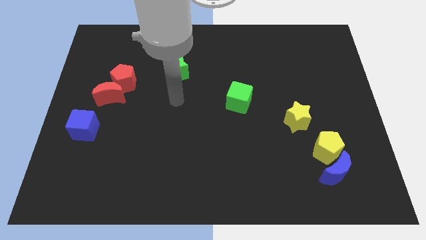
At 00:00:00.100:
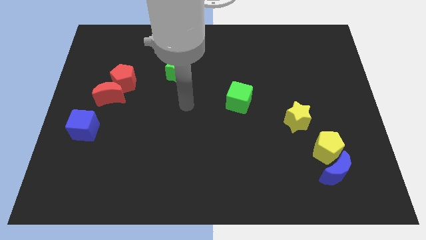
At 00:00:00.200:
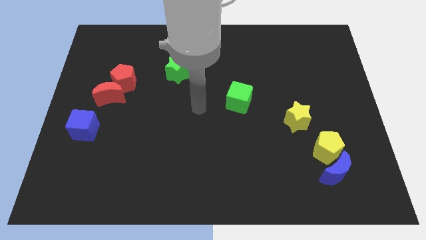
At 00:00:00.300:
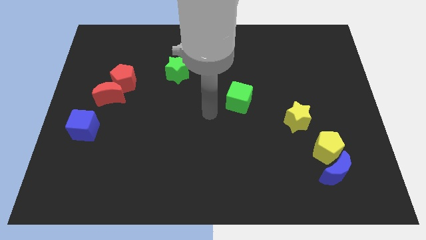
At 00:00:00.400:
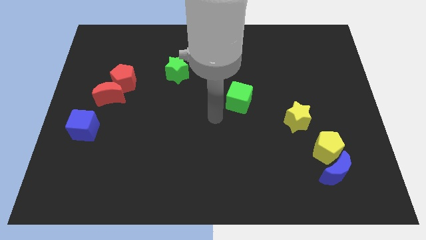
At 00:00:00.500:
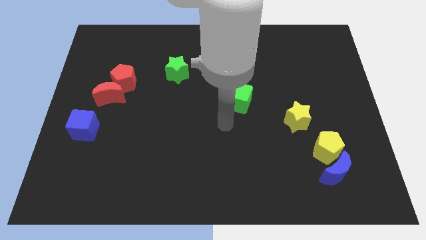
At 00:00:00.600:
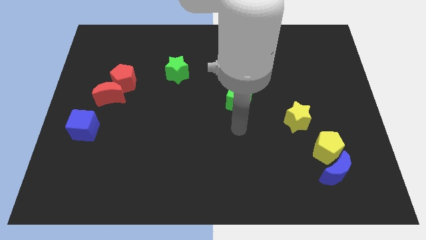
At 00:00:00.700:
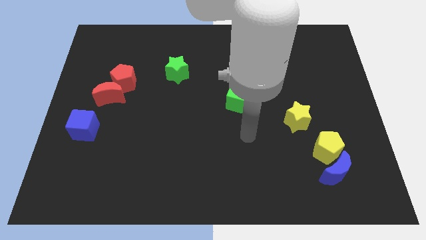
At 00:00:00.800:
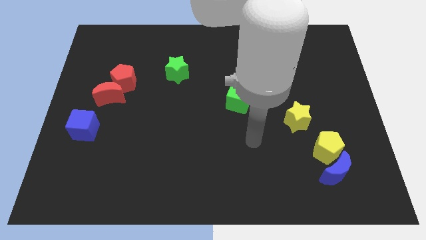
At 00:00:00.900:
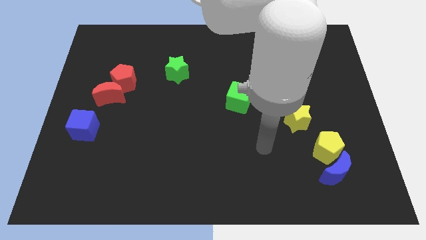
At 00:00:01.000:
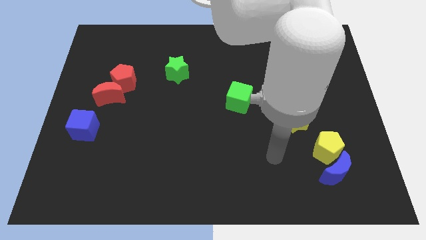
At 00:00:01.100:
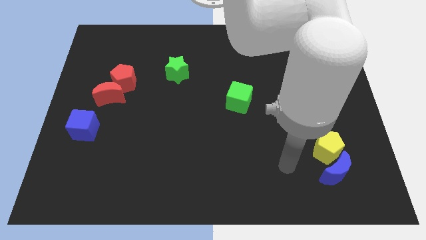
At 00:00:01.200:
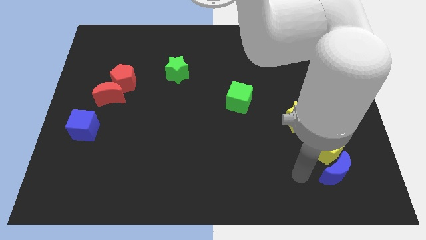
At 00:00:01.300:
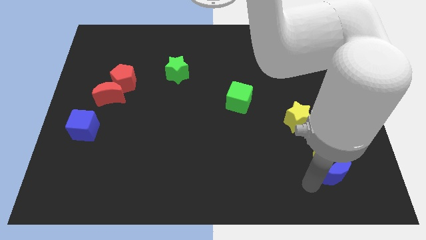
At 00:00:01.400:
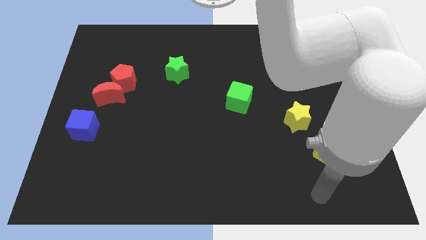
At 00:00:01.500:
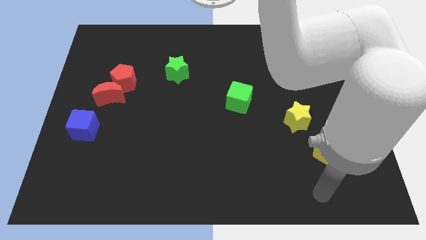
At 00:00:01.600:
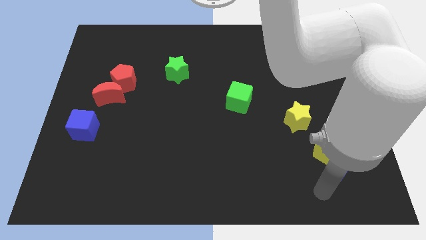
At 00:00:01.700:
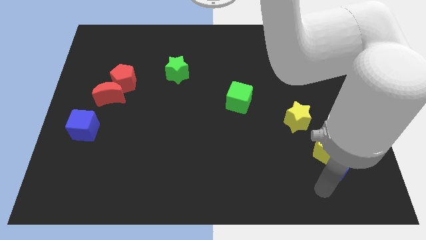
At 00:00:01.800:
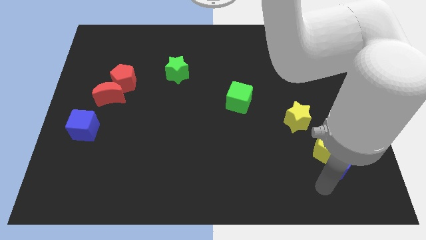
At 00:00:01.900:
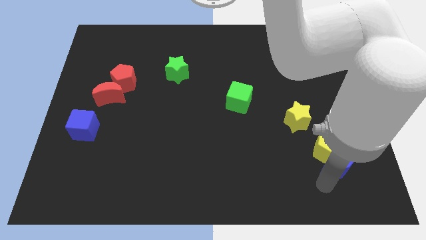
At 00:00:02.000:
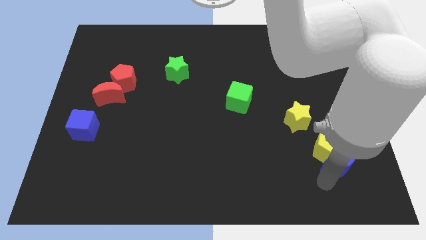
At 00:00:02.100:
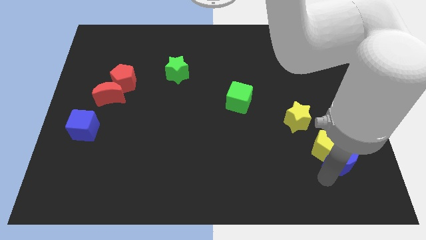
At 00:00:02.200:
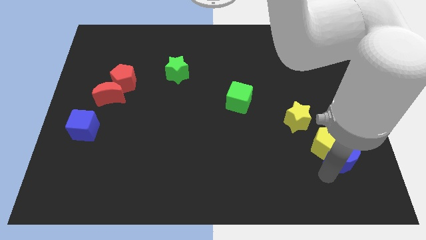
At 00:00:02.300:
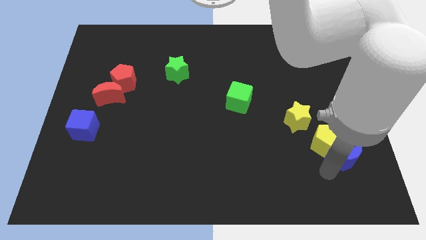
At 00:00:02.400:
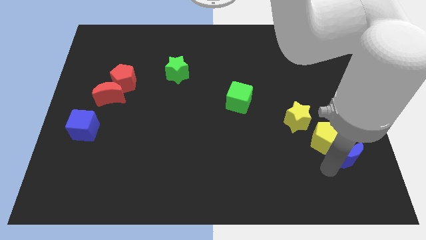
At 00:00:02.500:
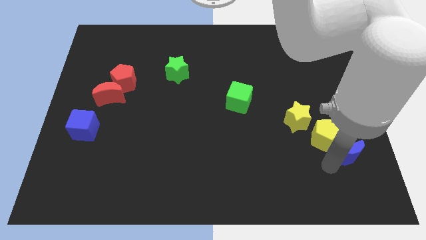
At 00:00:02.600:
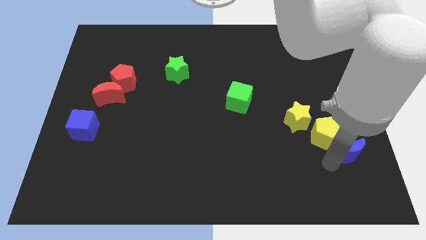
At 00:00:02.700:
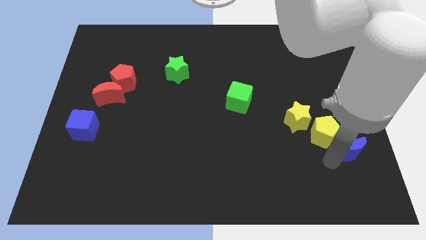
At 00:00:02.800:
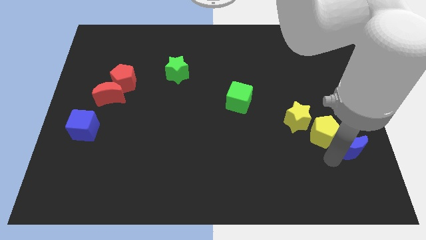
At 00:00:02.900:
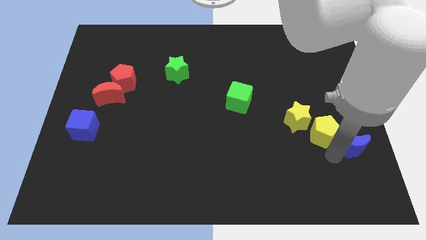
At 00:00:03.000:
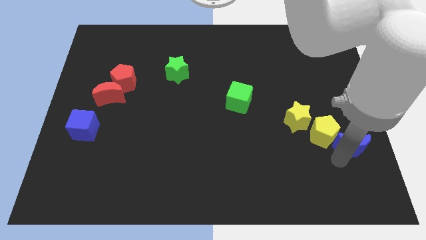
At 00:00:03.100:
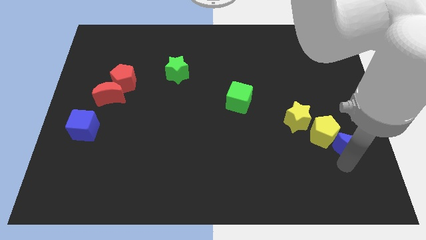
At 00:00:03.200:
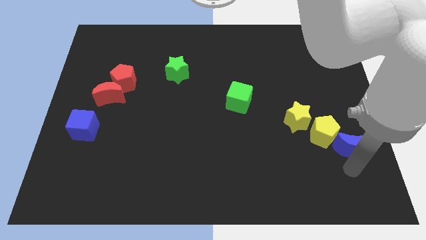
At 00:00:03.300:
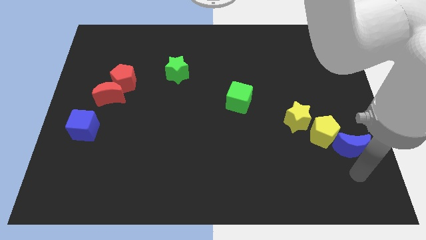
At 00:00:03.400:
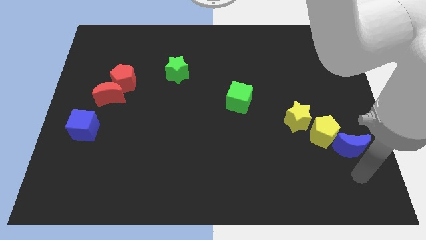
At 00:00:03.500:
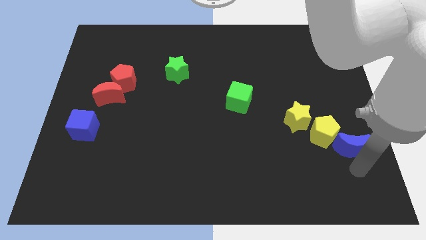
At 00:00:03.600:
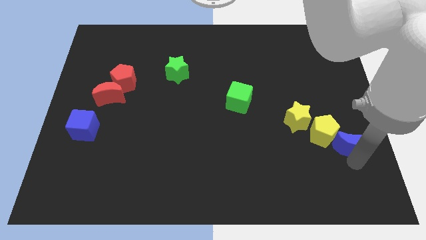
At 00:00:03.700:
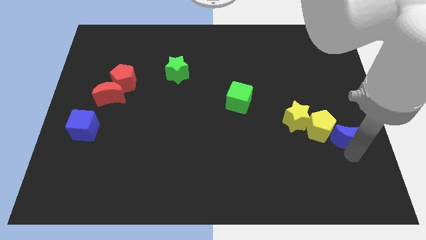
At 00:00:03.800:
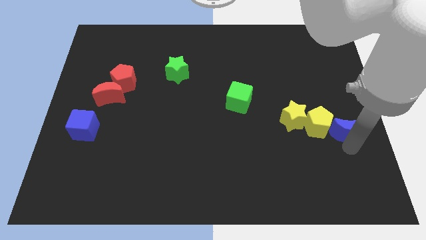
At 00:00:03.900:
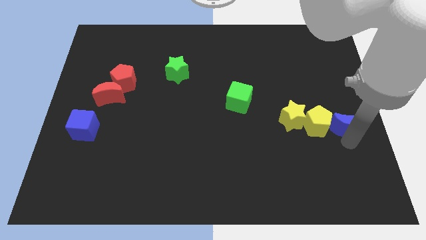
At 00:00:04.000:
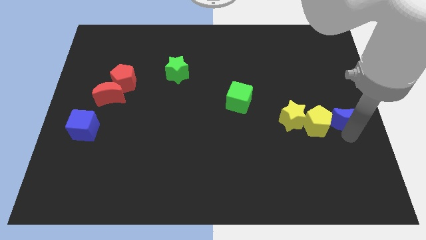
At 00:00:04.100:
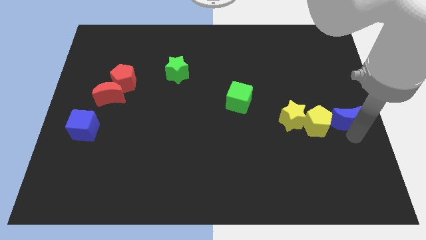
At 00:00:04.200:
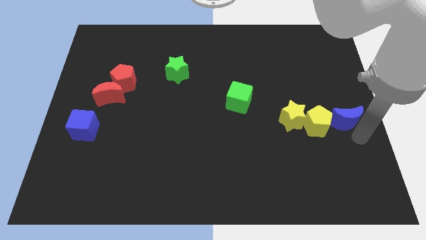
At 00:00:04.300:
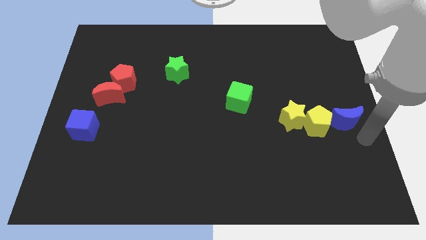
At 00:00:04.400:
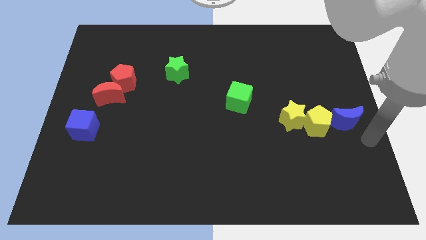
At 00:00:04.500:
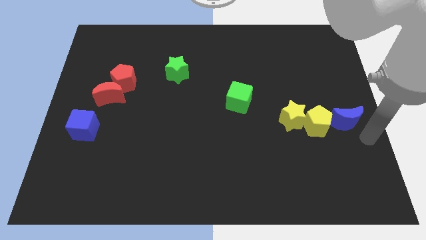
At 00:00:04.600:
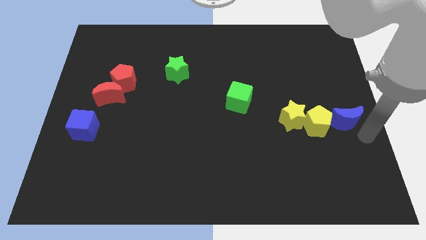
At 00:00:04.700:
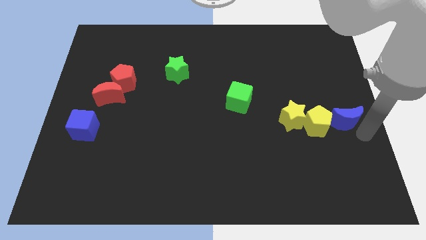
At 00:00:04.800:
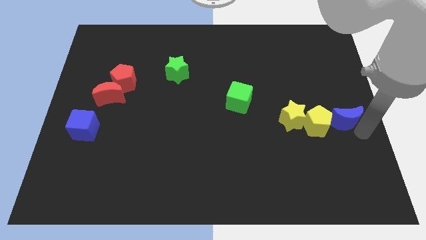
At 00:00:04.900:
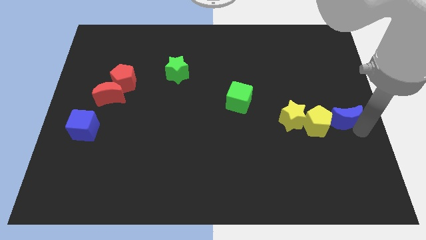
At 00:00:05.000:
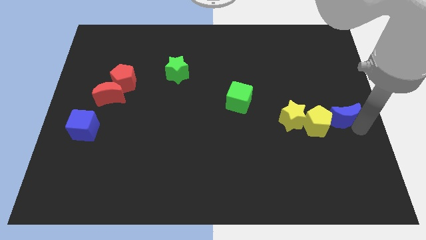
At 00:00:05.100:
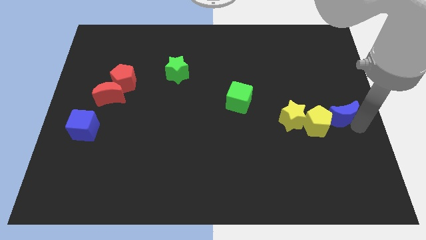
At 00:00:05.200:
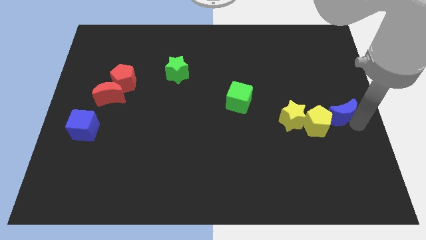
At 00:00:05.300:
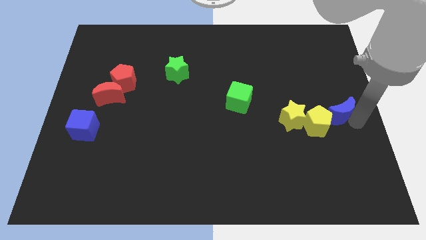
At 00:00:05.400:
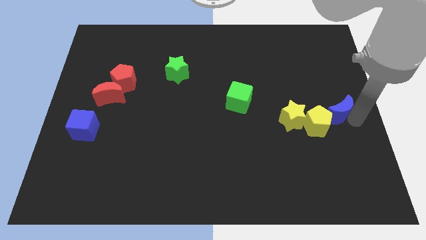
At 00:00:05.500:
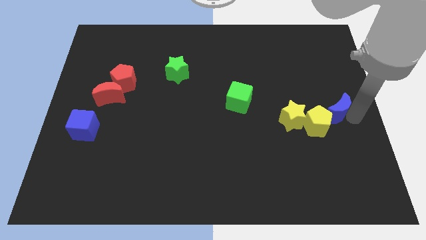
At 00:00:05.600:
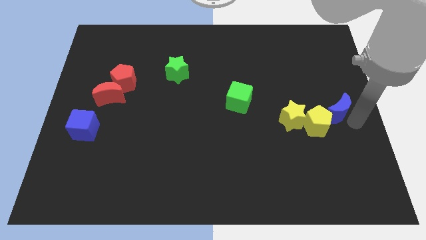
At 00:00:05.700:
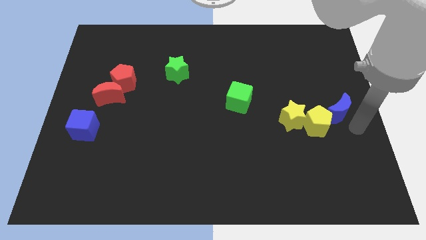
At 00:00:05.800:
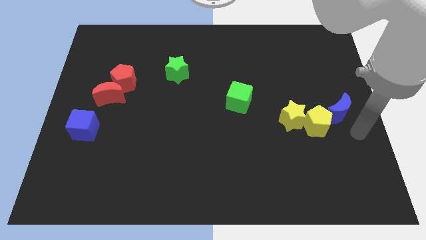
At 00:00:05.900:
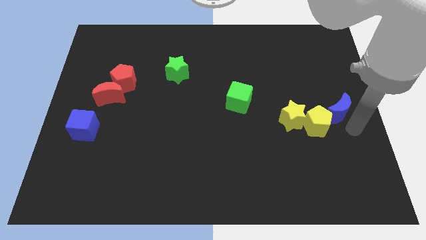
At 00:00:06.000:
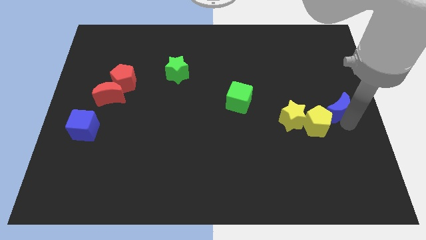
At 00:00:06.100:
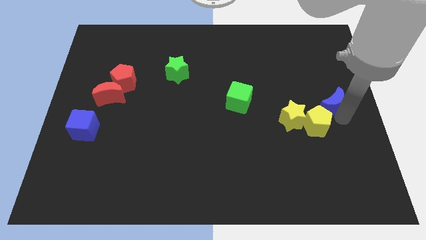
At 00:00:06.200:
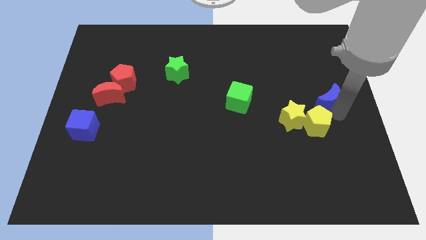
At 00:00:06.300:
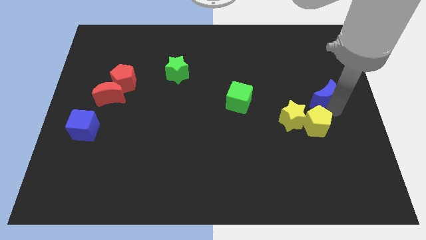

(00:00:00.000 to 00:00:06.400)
push the blue moon upwards

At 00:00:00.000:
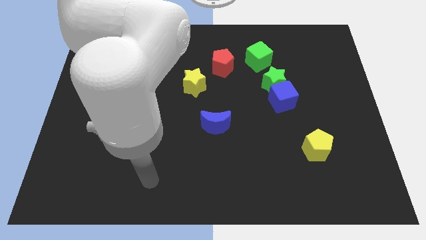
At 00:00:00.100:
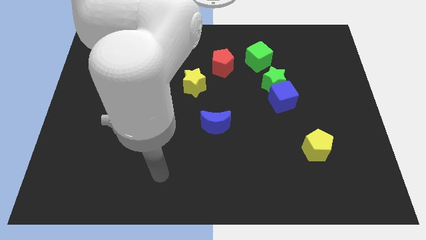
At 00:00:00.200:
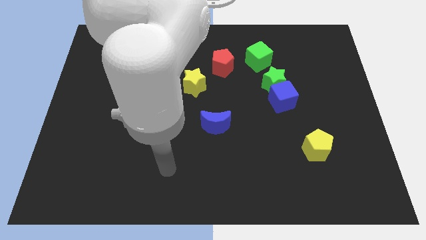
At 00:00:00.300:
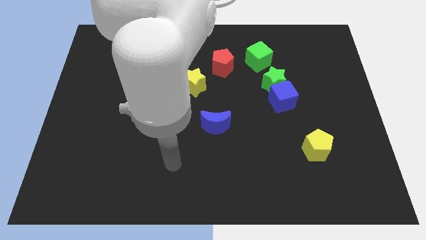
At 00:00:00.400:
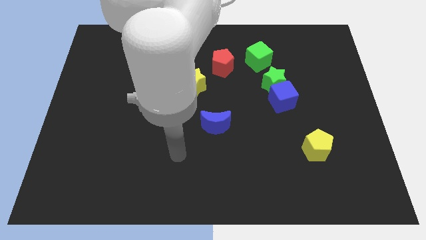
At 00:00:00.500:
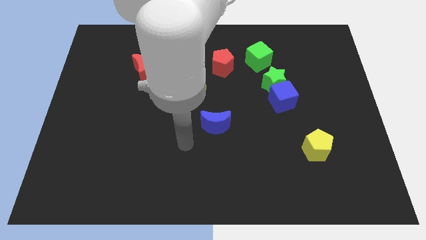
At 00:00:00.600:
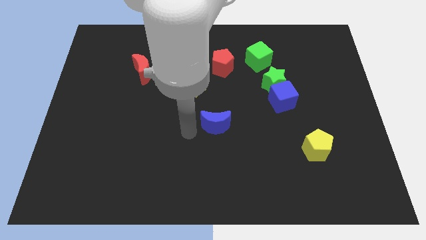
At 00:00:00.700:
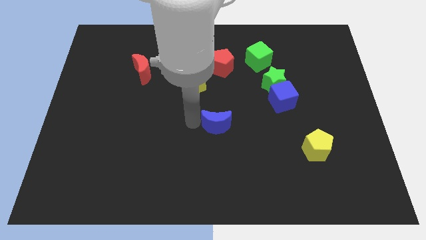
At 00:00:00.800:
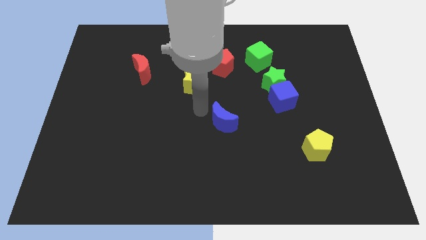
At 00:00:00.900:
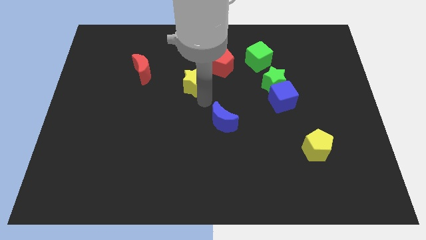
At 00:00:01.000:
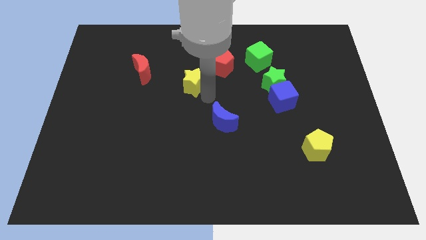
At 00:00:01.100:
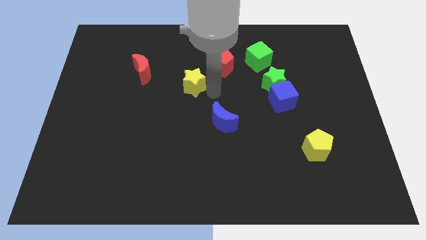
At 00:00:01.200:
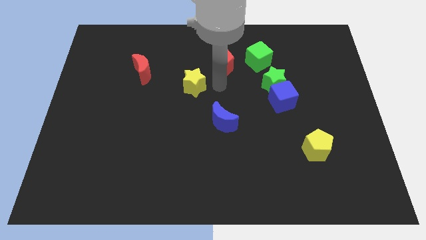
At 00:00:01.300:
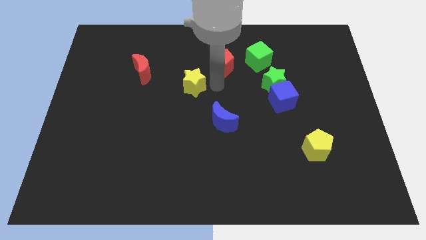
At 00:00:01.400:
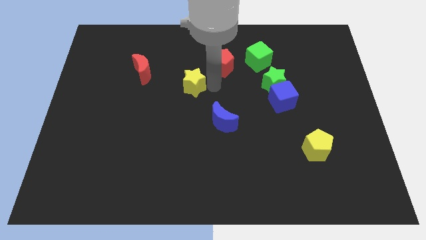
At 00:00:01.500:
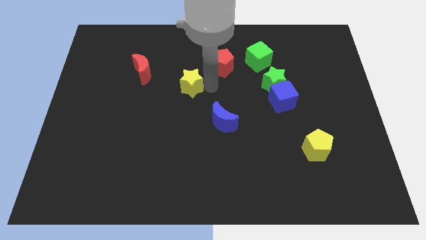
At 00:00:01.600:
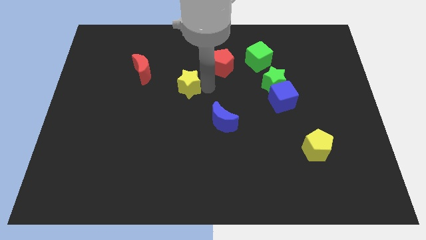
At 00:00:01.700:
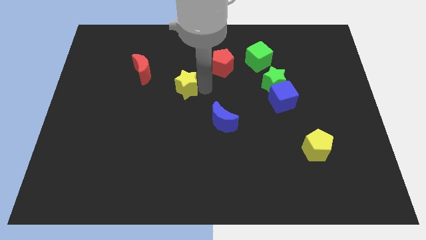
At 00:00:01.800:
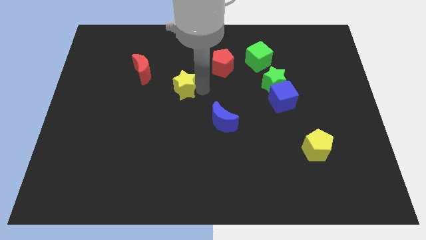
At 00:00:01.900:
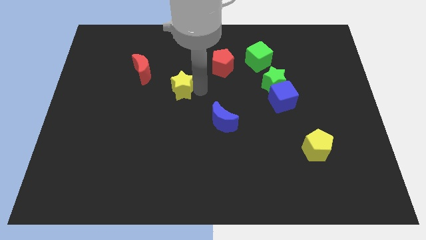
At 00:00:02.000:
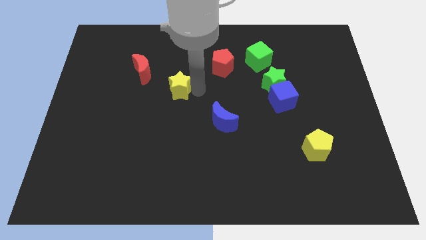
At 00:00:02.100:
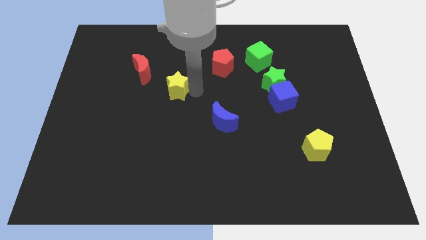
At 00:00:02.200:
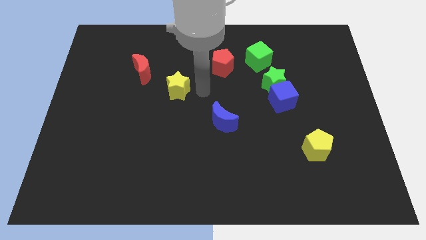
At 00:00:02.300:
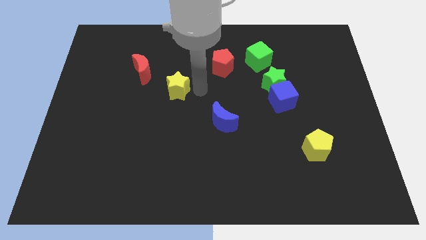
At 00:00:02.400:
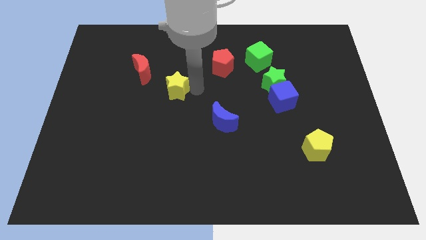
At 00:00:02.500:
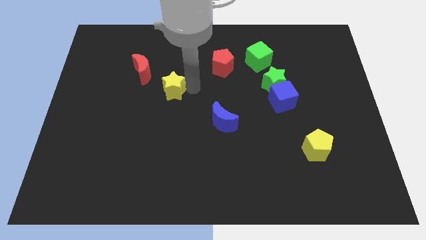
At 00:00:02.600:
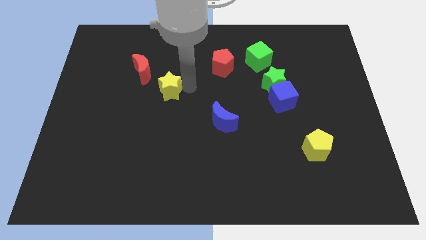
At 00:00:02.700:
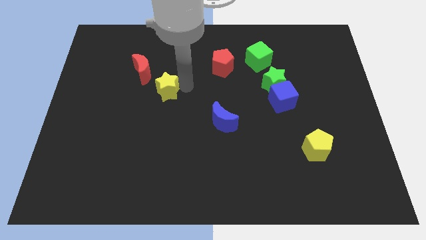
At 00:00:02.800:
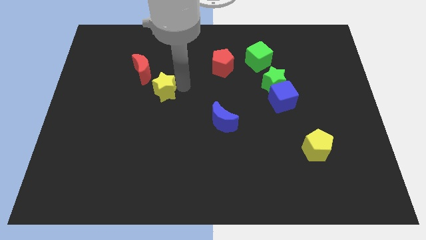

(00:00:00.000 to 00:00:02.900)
slide the yellow star left slightly
